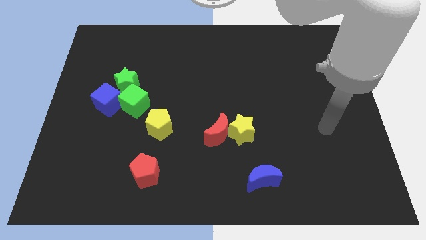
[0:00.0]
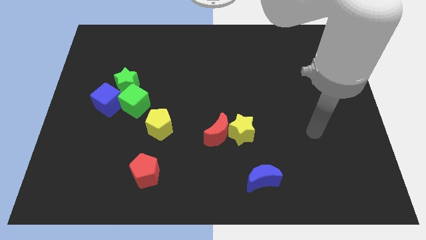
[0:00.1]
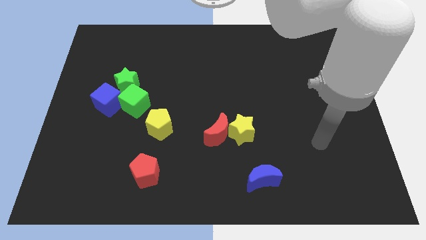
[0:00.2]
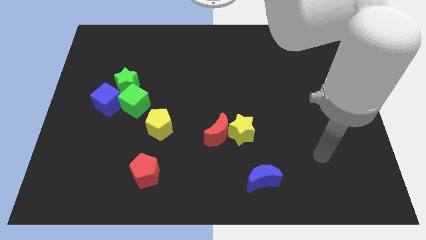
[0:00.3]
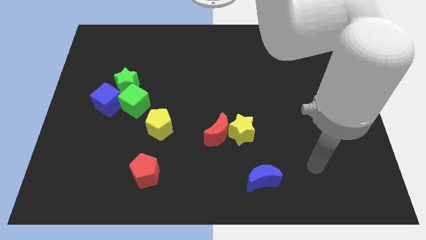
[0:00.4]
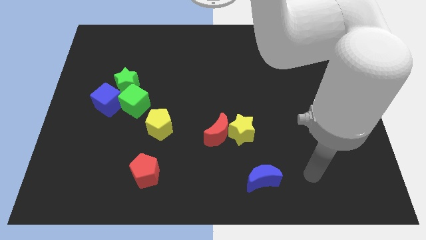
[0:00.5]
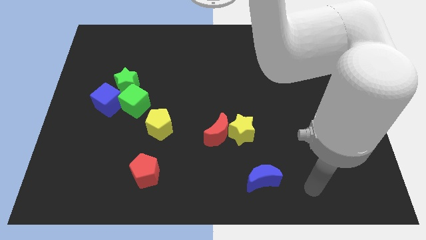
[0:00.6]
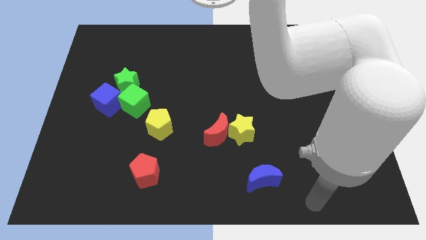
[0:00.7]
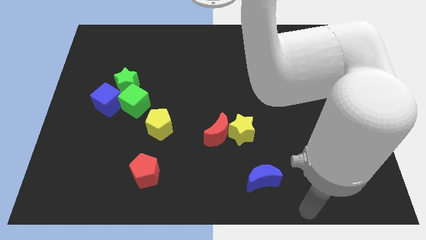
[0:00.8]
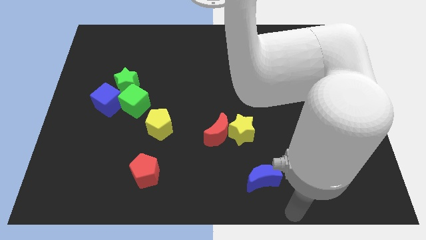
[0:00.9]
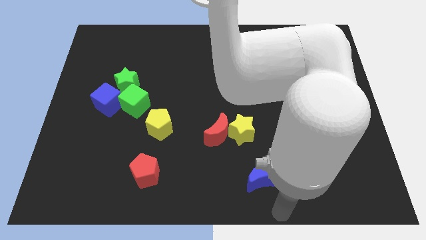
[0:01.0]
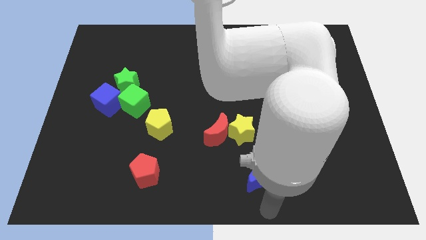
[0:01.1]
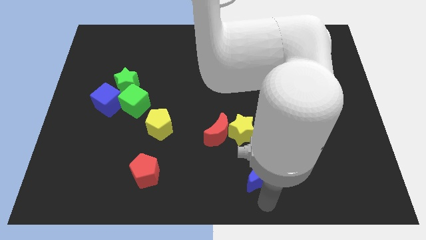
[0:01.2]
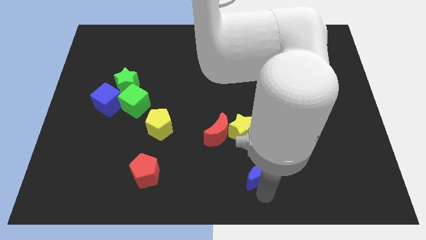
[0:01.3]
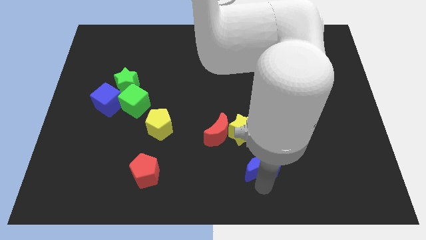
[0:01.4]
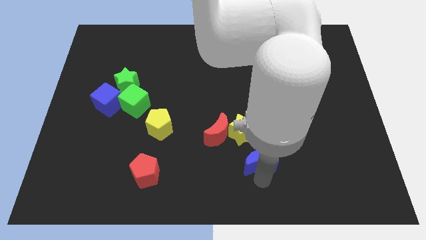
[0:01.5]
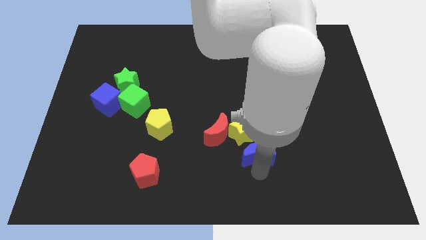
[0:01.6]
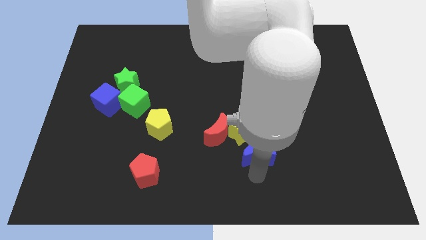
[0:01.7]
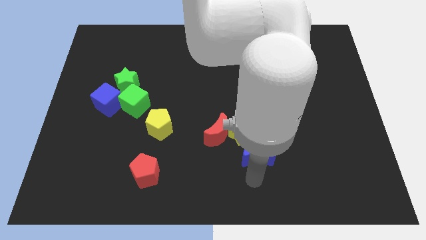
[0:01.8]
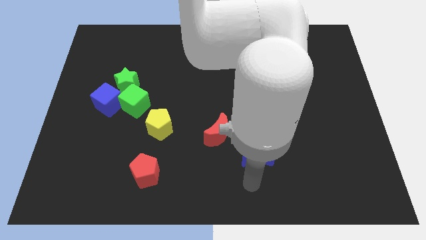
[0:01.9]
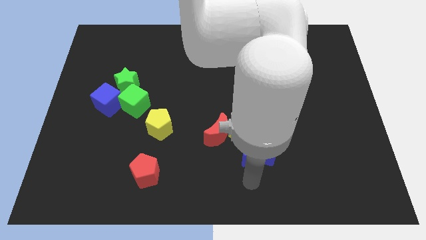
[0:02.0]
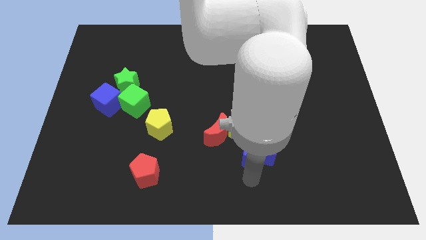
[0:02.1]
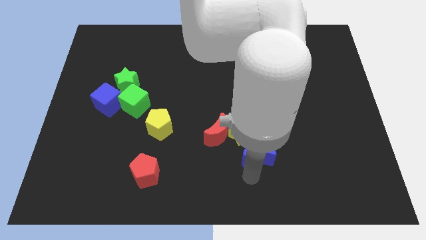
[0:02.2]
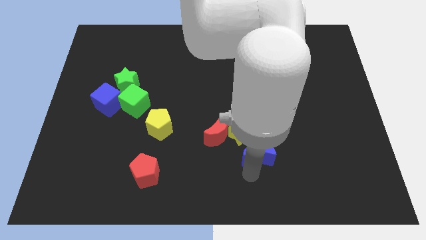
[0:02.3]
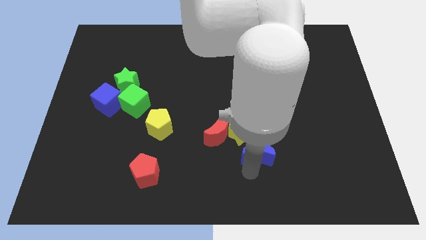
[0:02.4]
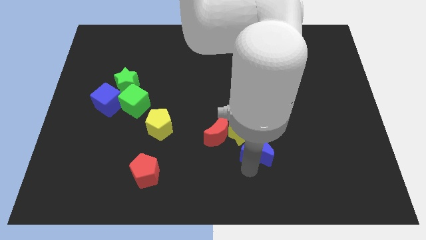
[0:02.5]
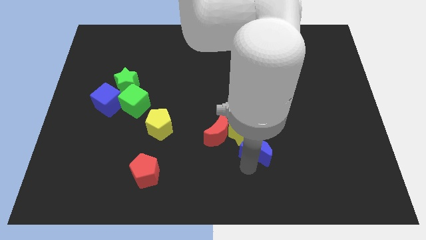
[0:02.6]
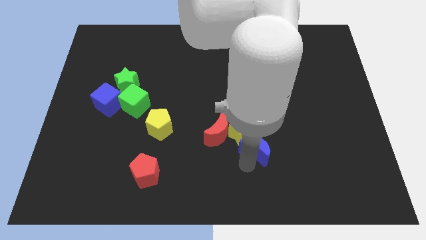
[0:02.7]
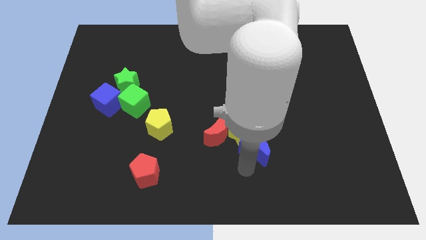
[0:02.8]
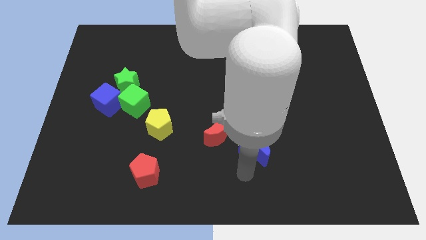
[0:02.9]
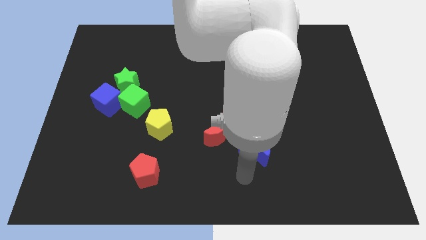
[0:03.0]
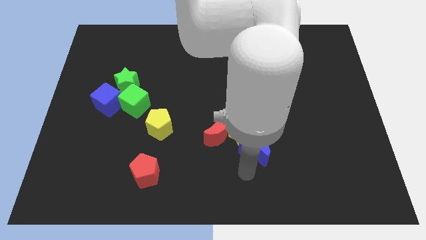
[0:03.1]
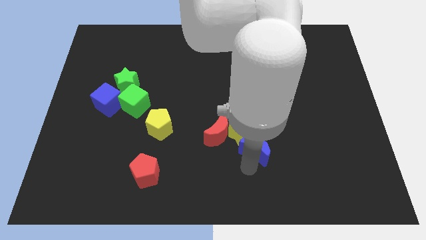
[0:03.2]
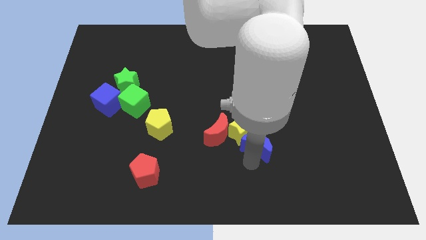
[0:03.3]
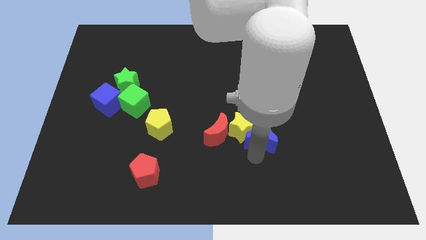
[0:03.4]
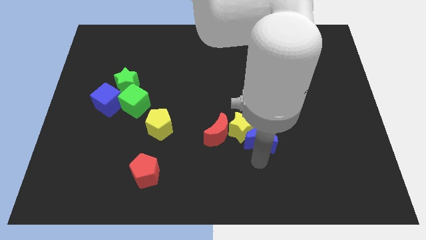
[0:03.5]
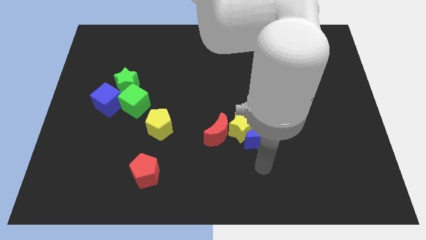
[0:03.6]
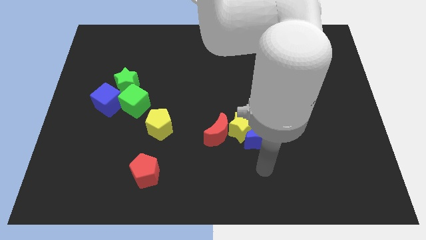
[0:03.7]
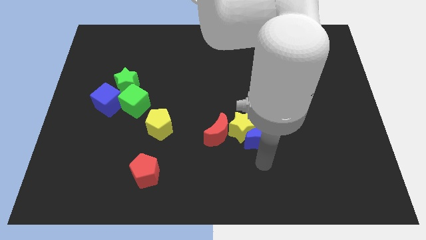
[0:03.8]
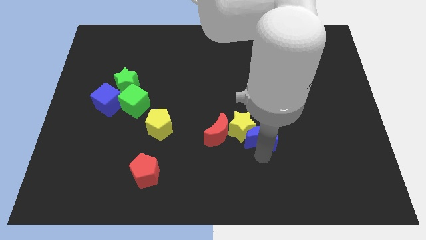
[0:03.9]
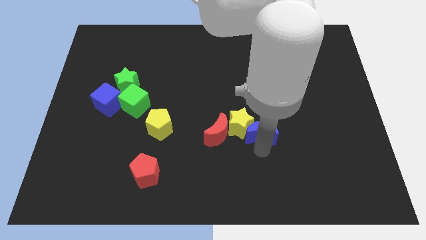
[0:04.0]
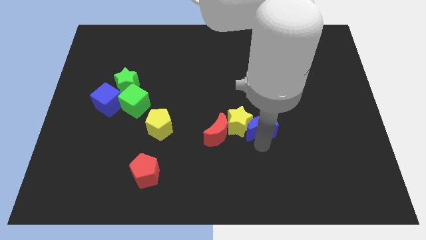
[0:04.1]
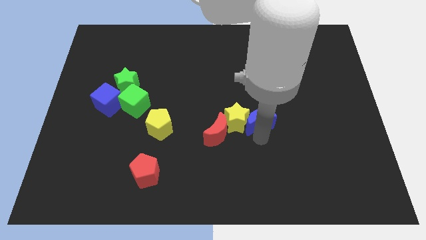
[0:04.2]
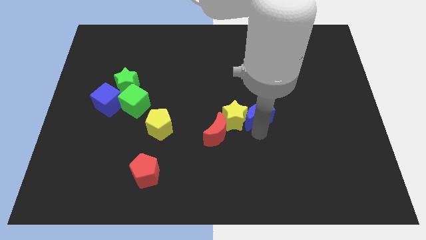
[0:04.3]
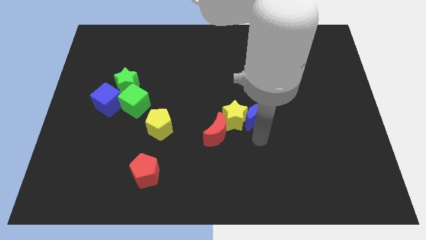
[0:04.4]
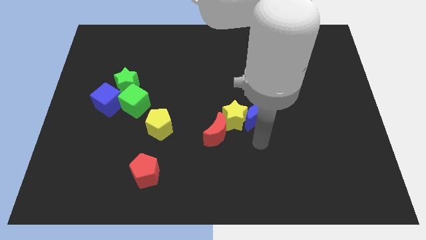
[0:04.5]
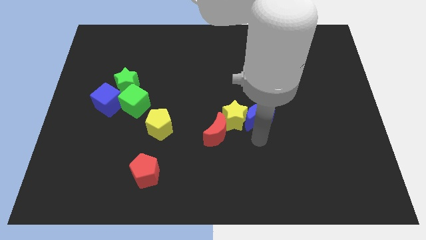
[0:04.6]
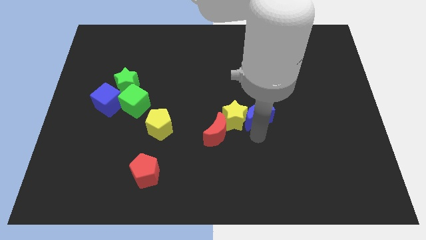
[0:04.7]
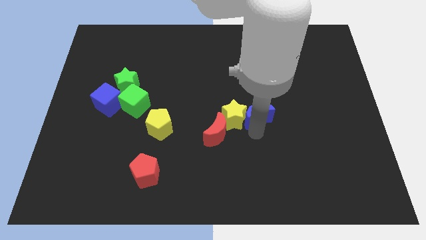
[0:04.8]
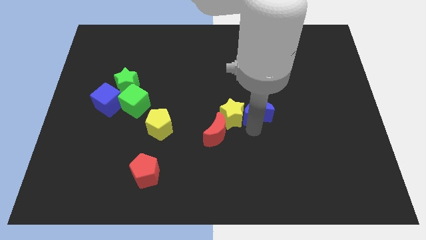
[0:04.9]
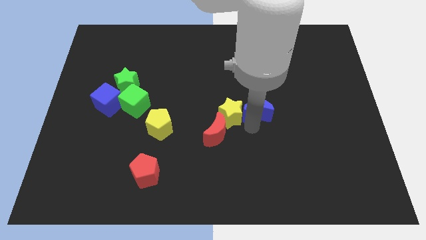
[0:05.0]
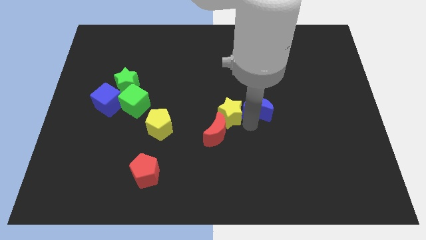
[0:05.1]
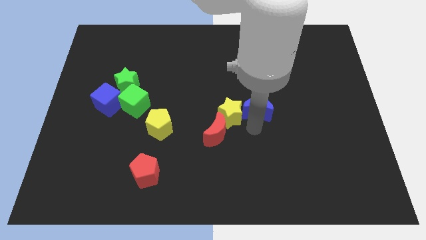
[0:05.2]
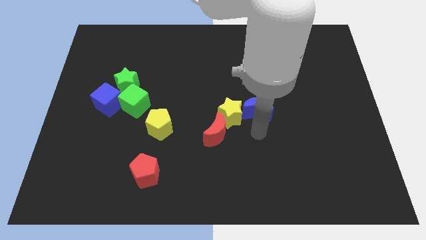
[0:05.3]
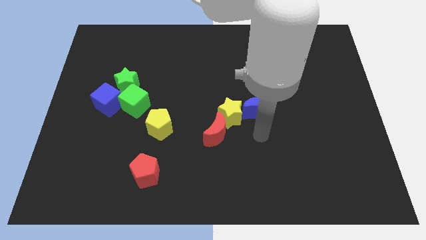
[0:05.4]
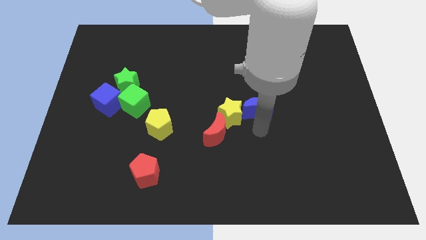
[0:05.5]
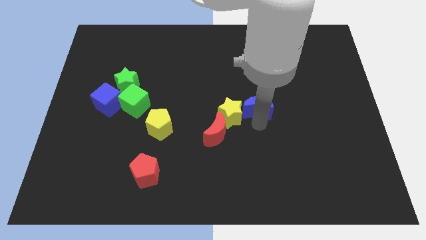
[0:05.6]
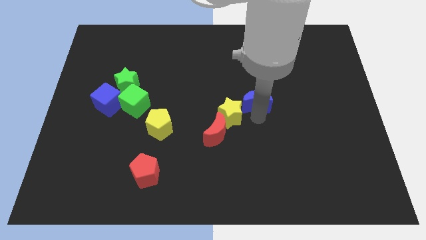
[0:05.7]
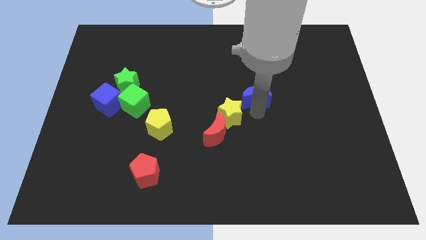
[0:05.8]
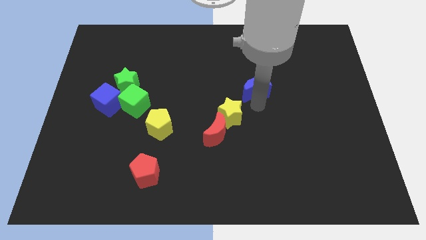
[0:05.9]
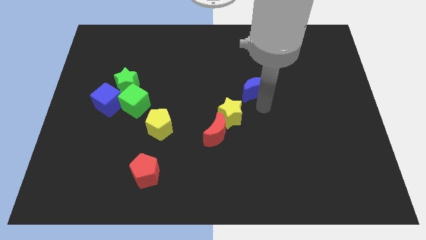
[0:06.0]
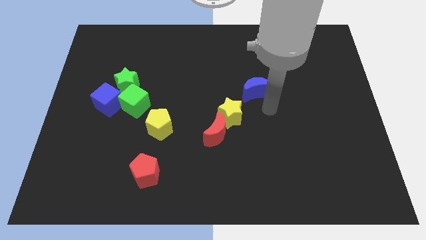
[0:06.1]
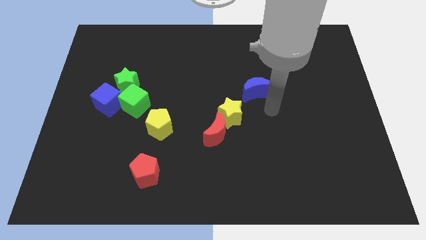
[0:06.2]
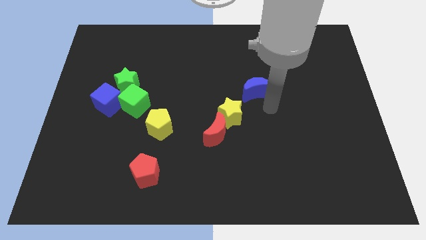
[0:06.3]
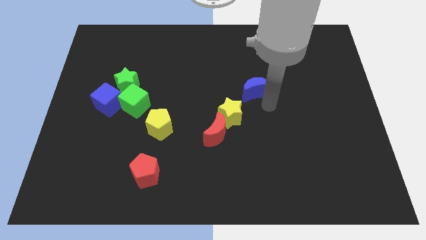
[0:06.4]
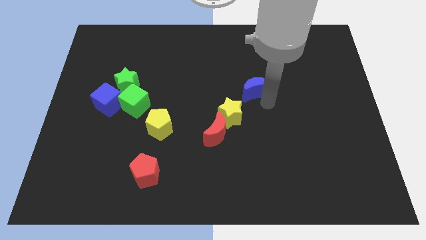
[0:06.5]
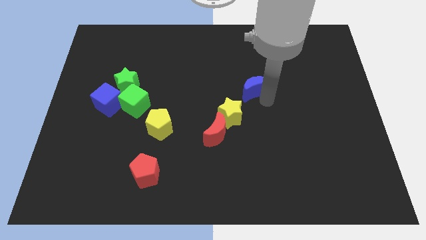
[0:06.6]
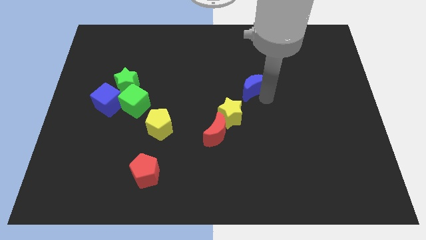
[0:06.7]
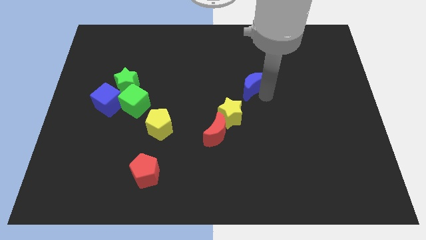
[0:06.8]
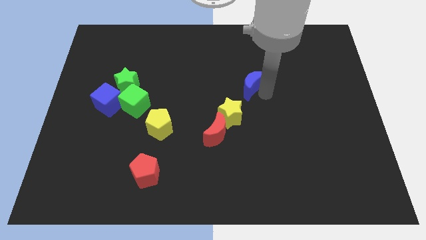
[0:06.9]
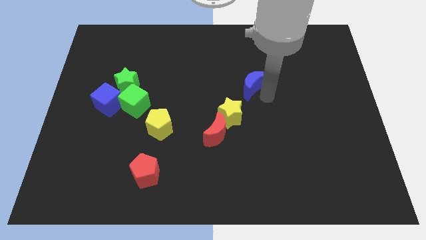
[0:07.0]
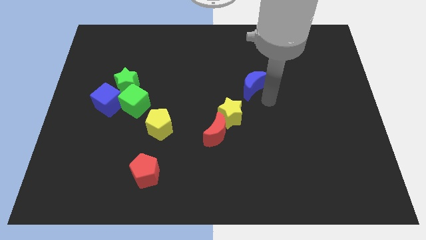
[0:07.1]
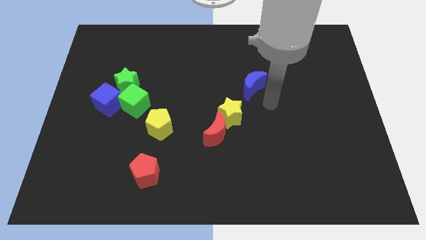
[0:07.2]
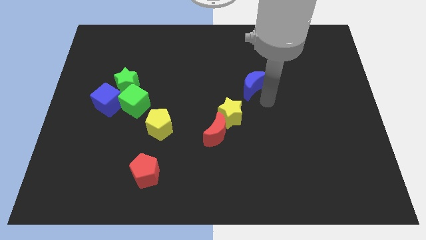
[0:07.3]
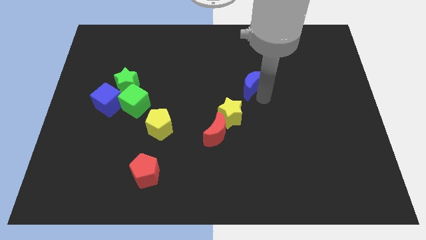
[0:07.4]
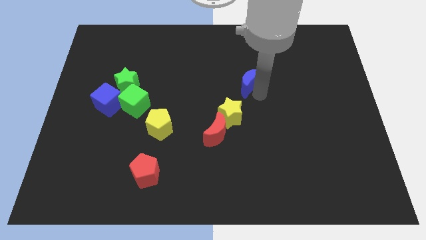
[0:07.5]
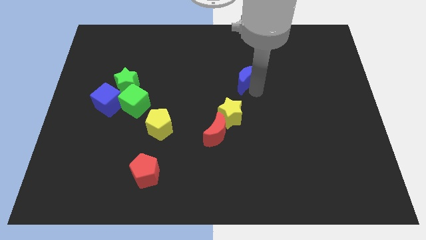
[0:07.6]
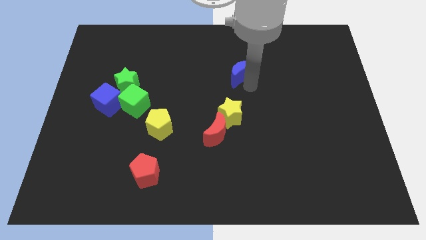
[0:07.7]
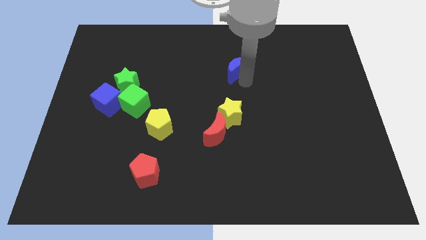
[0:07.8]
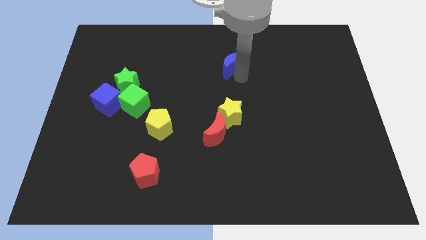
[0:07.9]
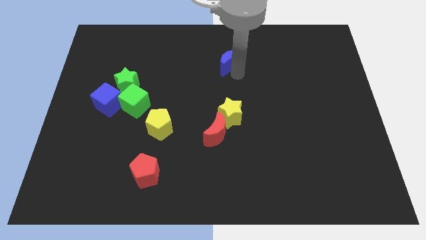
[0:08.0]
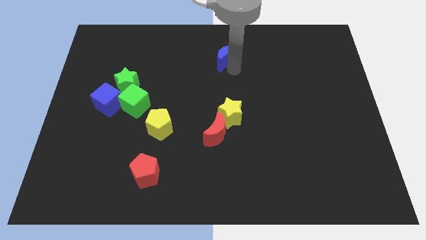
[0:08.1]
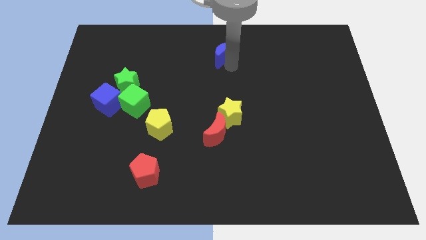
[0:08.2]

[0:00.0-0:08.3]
put the blue moon to the top side
